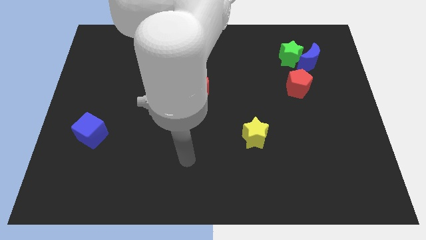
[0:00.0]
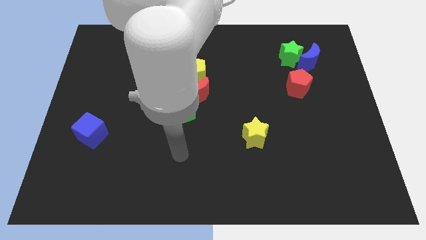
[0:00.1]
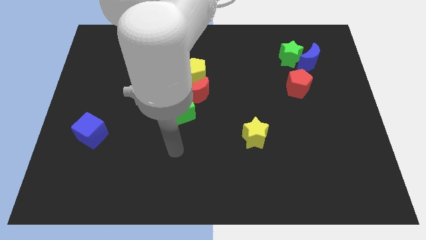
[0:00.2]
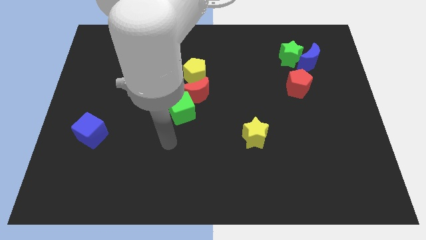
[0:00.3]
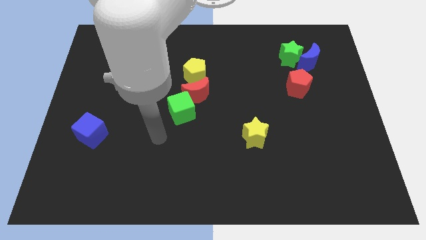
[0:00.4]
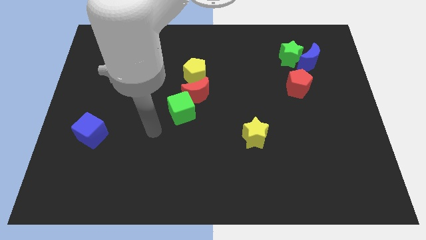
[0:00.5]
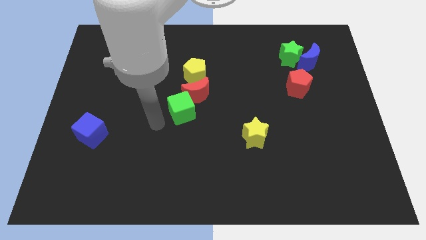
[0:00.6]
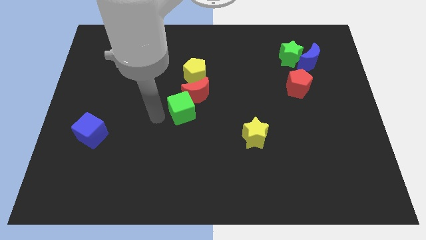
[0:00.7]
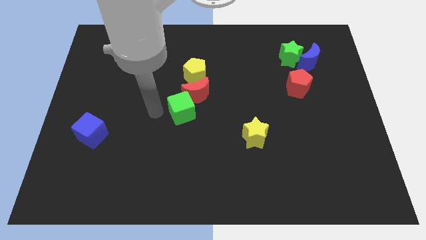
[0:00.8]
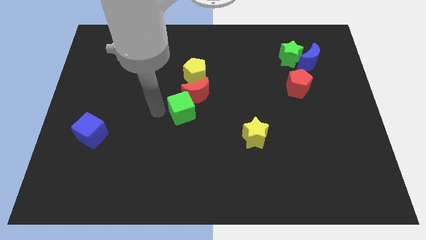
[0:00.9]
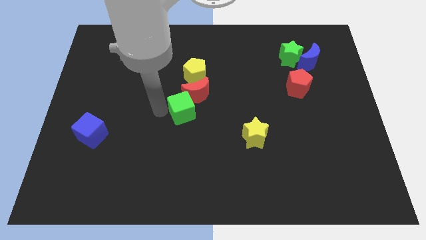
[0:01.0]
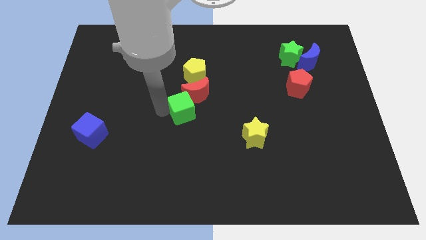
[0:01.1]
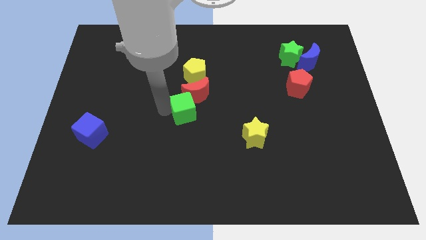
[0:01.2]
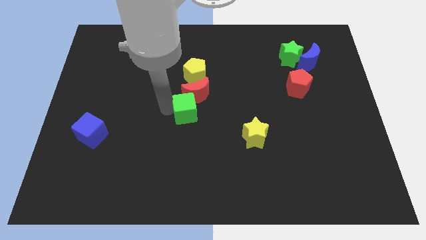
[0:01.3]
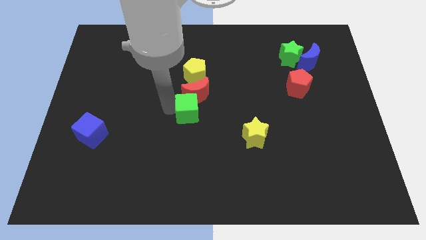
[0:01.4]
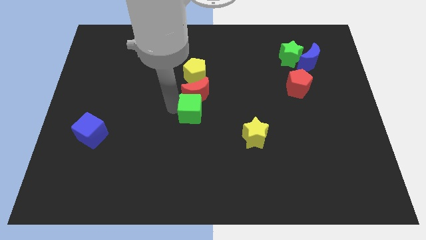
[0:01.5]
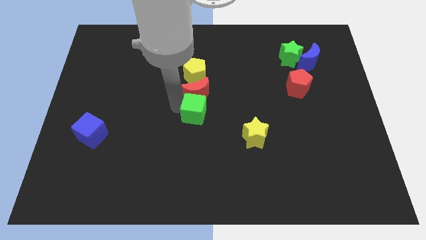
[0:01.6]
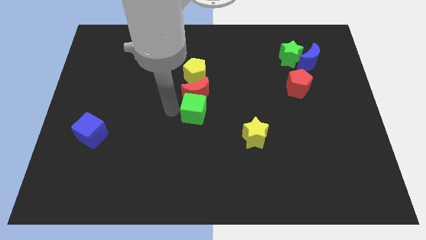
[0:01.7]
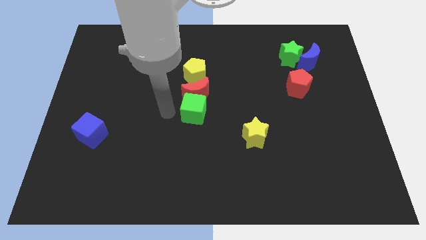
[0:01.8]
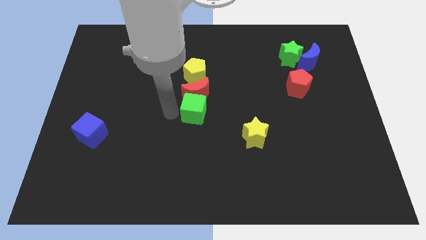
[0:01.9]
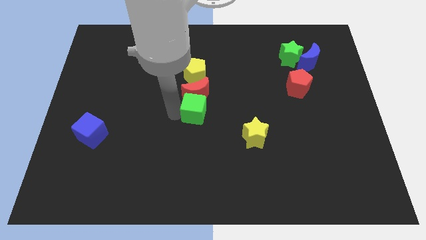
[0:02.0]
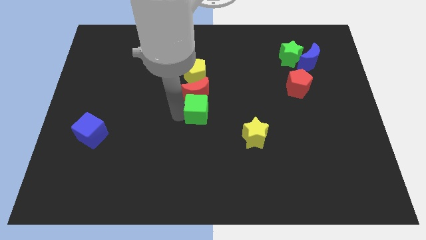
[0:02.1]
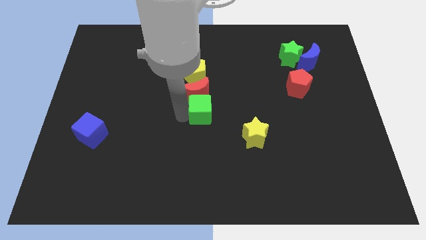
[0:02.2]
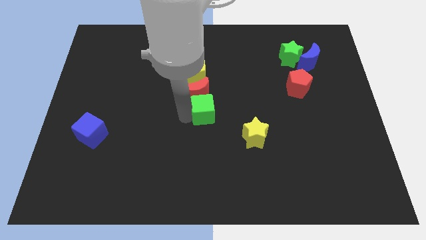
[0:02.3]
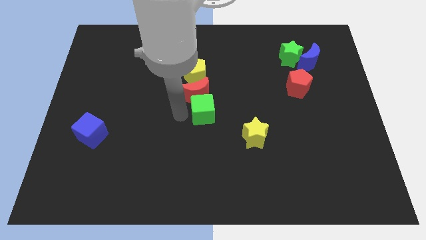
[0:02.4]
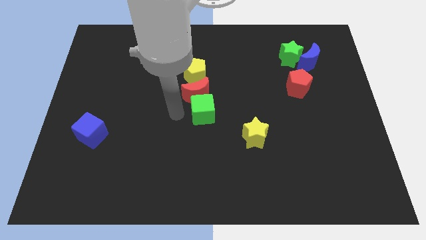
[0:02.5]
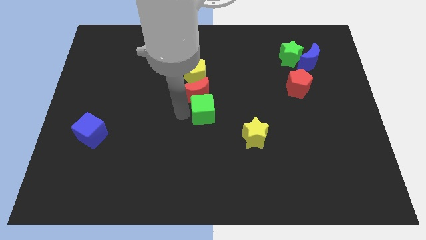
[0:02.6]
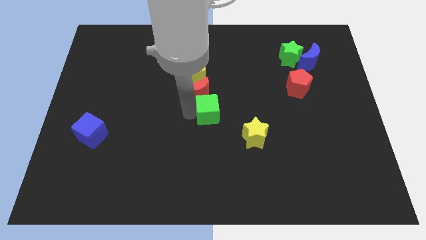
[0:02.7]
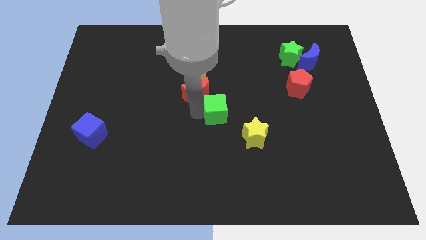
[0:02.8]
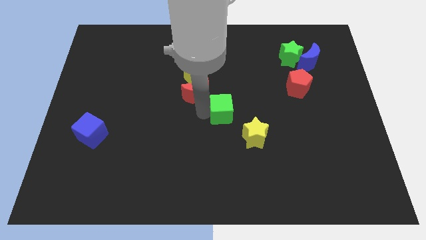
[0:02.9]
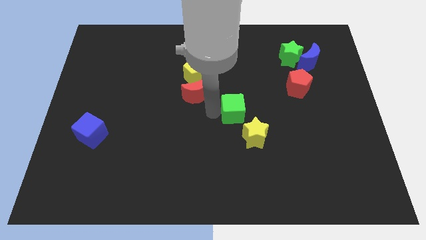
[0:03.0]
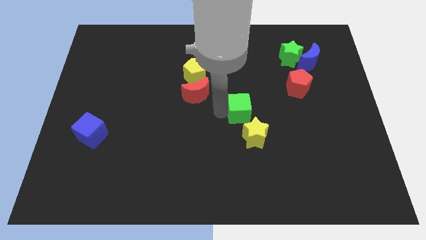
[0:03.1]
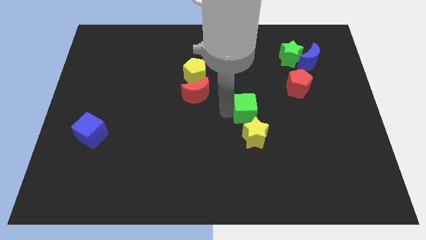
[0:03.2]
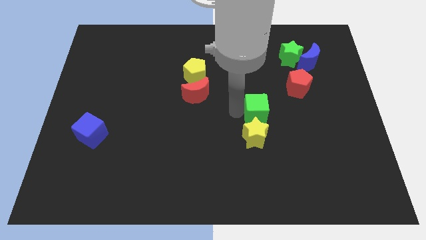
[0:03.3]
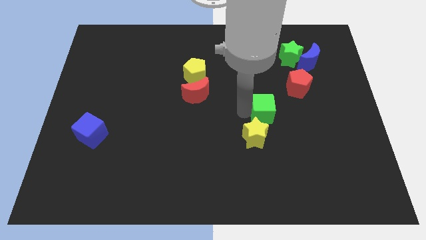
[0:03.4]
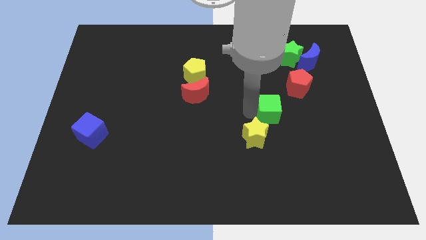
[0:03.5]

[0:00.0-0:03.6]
move the green cube to the right

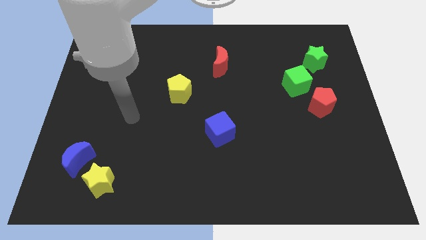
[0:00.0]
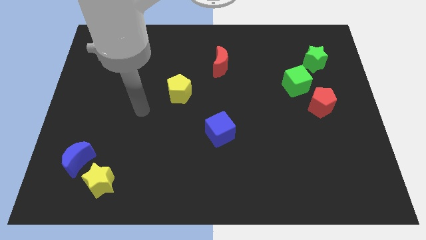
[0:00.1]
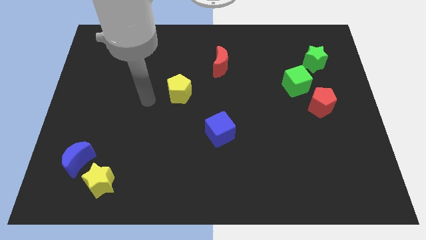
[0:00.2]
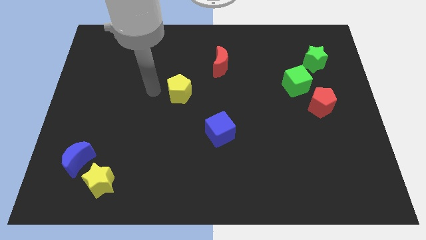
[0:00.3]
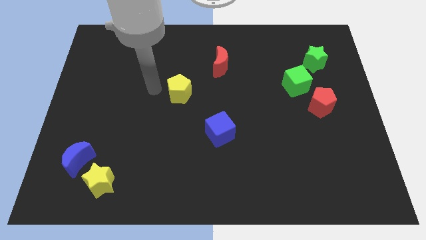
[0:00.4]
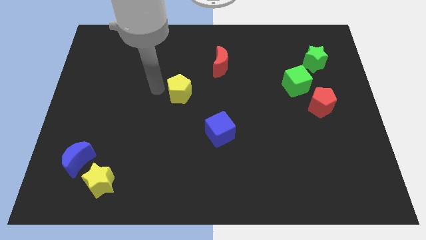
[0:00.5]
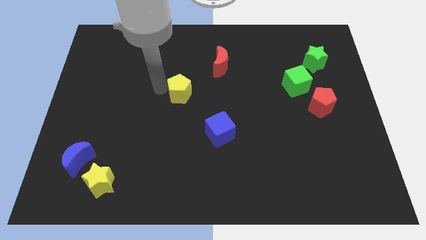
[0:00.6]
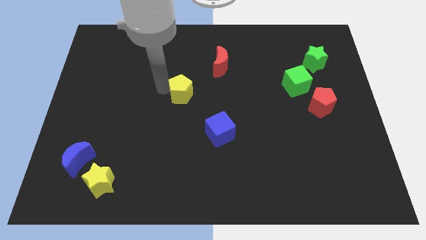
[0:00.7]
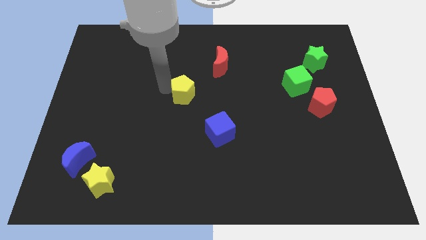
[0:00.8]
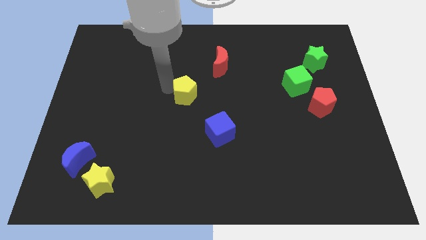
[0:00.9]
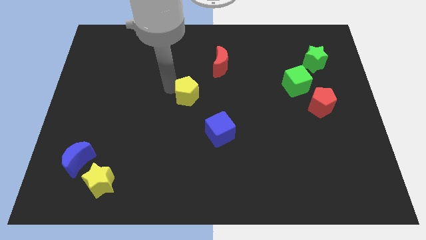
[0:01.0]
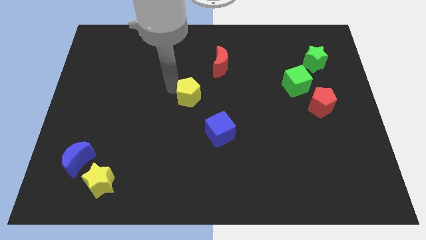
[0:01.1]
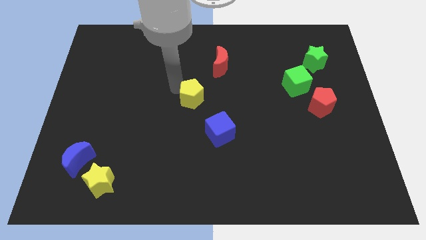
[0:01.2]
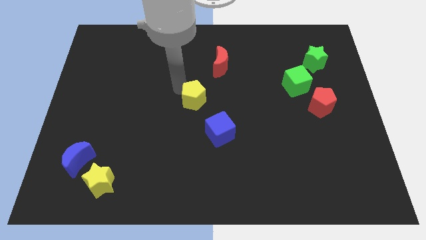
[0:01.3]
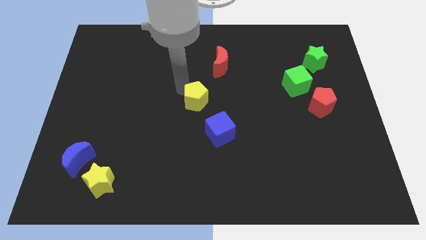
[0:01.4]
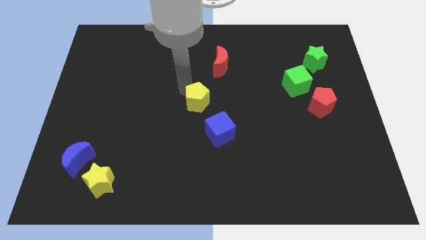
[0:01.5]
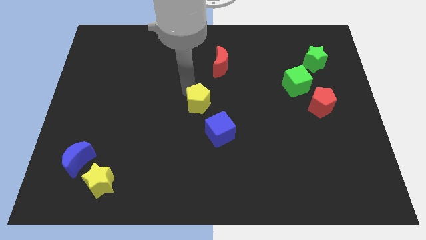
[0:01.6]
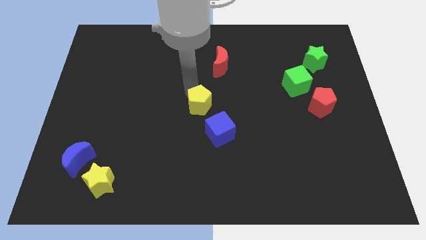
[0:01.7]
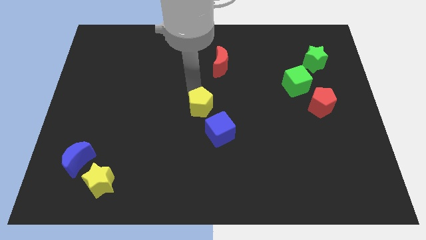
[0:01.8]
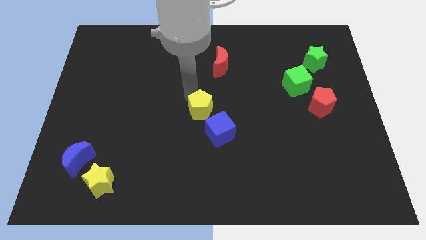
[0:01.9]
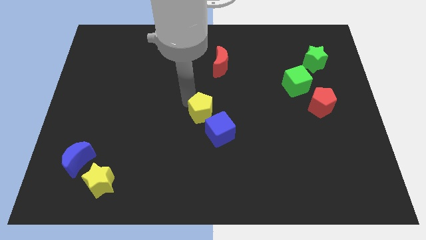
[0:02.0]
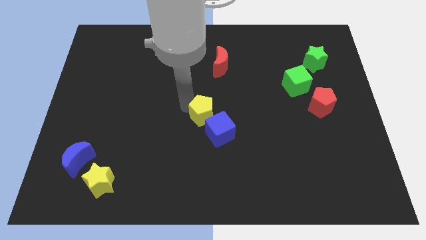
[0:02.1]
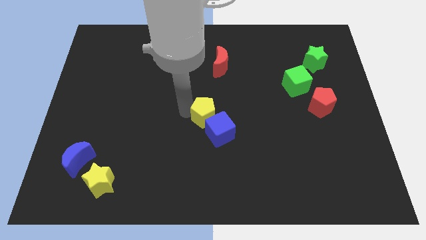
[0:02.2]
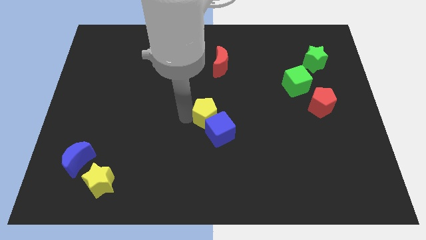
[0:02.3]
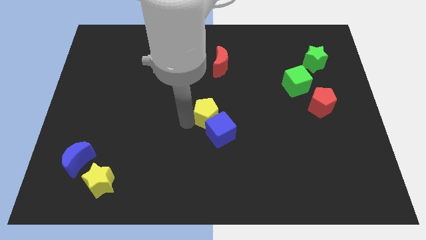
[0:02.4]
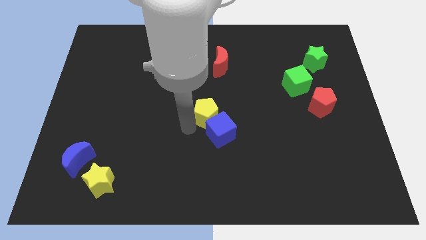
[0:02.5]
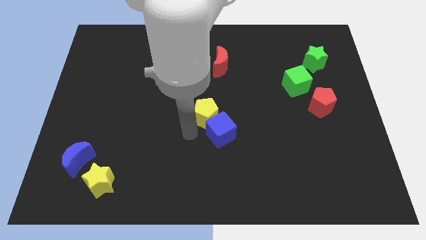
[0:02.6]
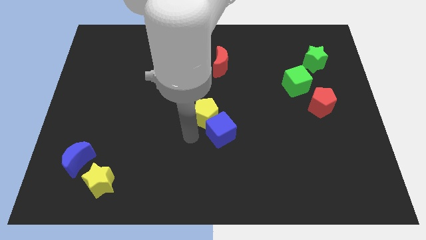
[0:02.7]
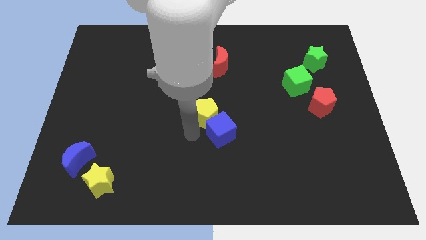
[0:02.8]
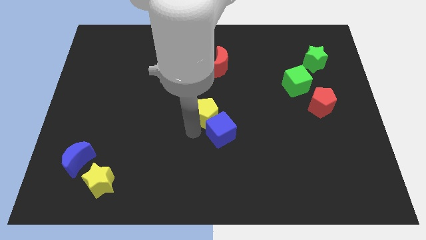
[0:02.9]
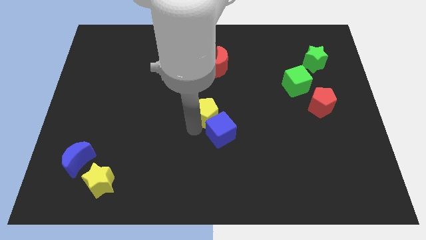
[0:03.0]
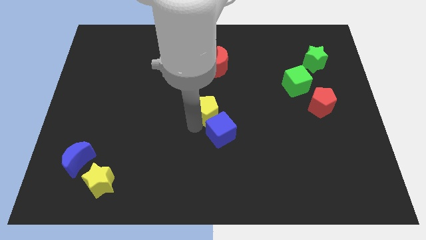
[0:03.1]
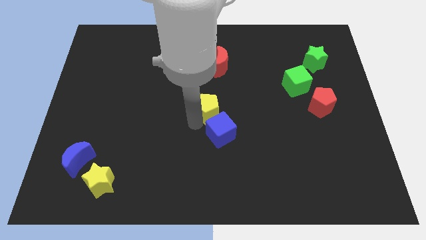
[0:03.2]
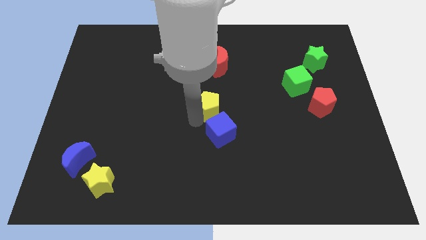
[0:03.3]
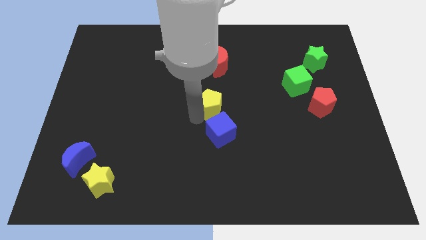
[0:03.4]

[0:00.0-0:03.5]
slightly push the yellow pentagon right

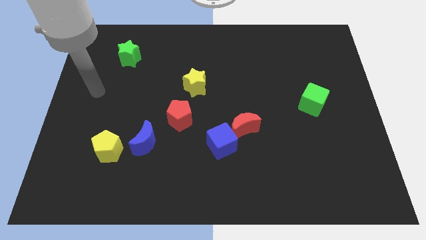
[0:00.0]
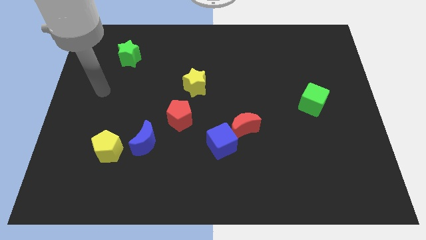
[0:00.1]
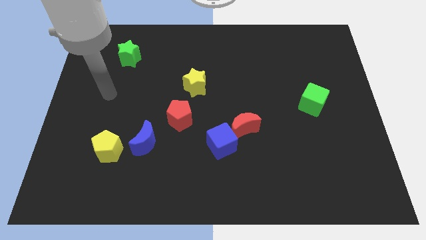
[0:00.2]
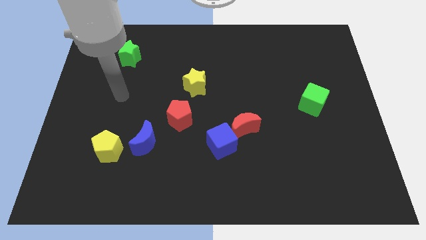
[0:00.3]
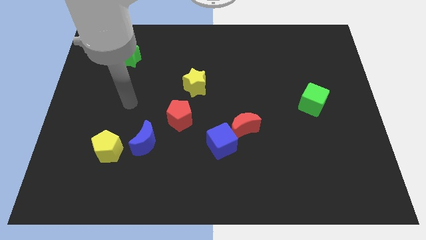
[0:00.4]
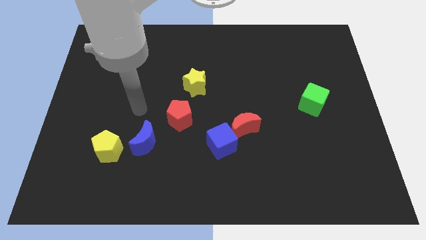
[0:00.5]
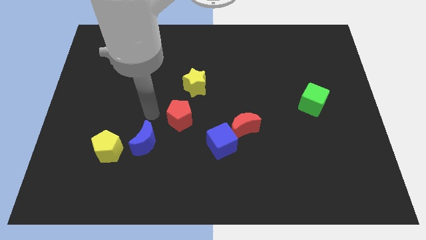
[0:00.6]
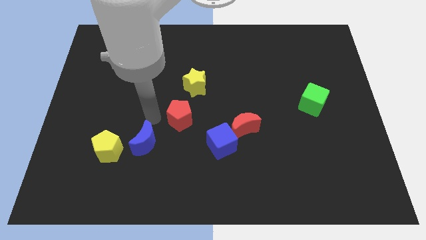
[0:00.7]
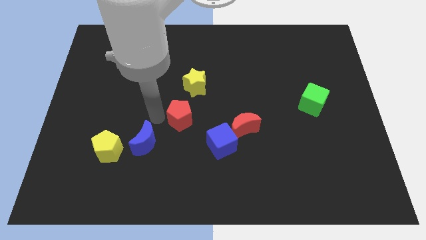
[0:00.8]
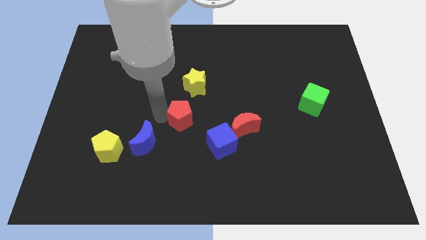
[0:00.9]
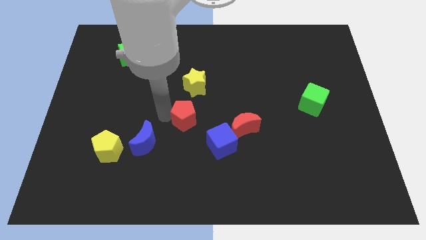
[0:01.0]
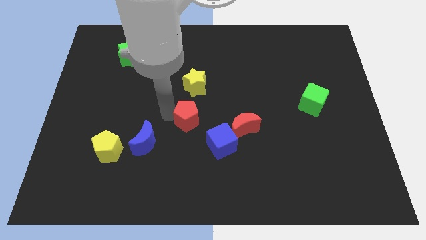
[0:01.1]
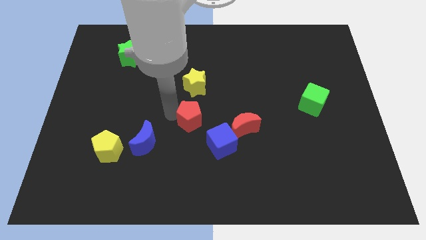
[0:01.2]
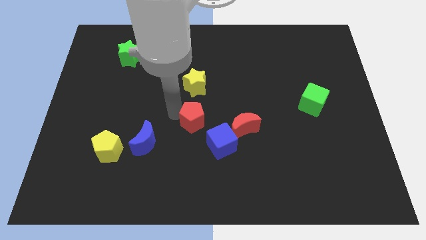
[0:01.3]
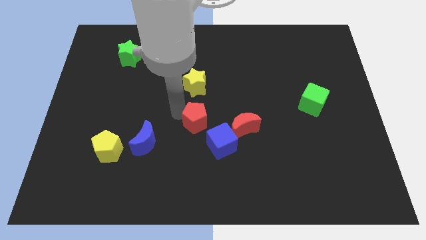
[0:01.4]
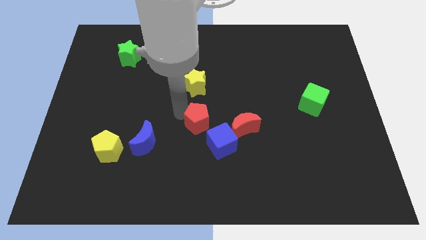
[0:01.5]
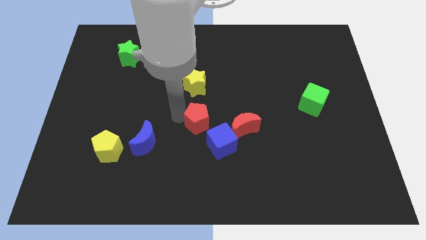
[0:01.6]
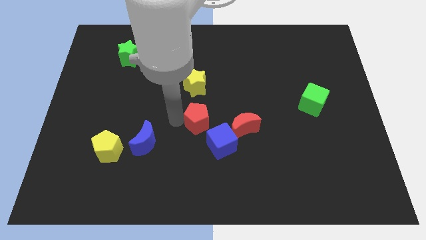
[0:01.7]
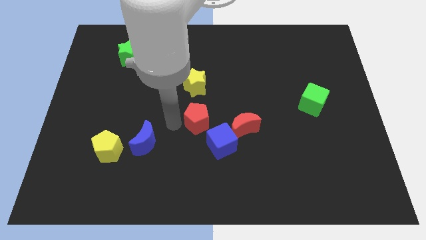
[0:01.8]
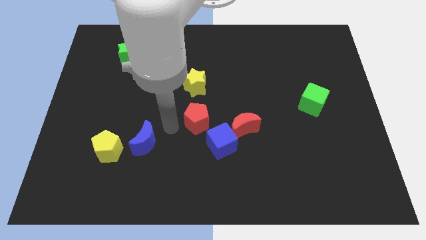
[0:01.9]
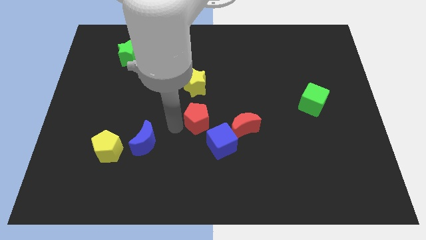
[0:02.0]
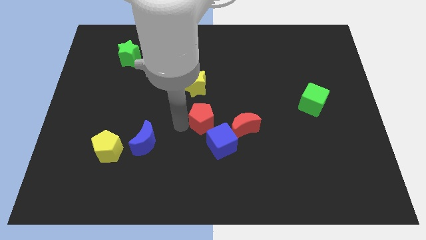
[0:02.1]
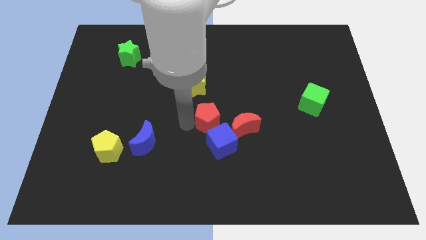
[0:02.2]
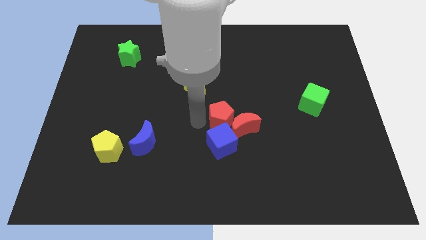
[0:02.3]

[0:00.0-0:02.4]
slightly push the red pentagon right
